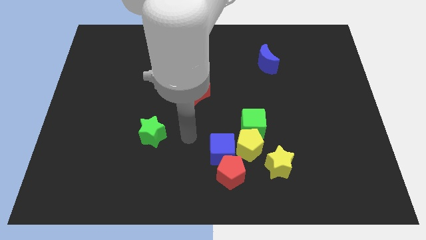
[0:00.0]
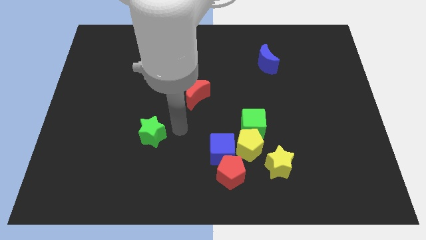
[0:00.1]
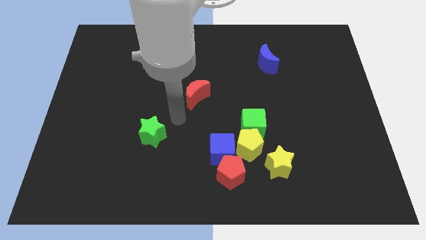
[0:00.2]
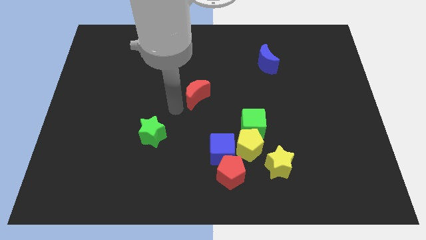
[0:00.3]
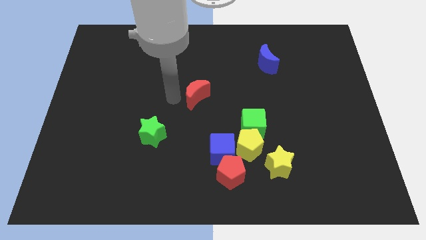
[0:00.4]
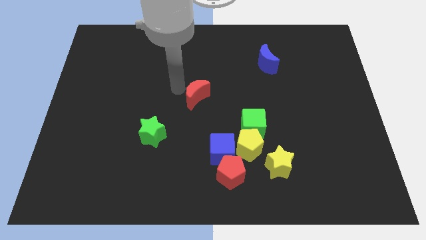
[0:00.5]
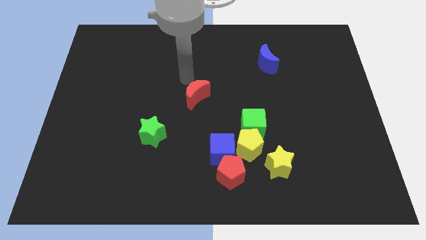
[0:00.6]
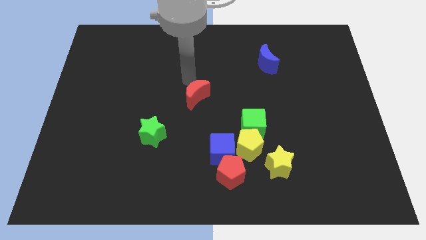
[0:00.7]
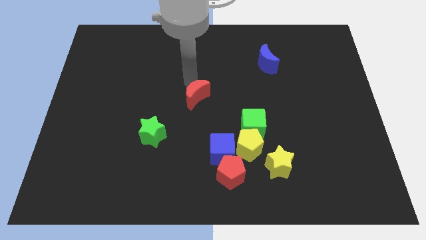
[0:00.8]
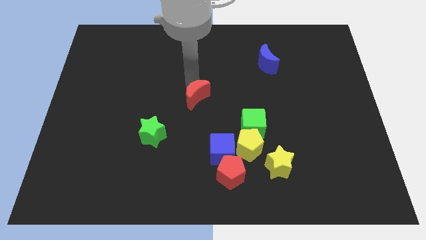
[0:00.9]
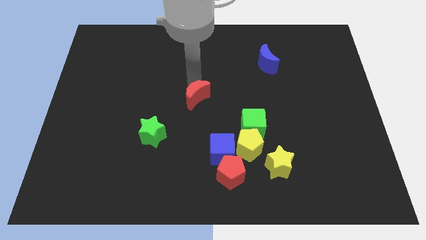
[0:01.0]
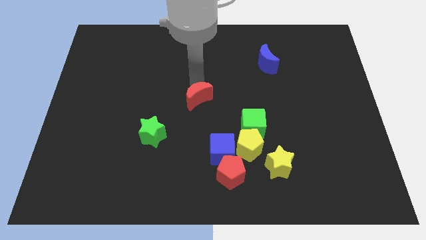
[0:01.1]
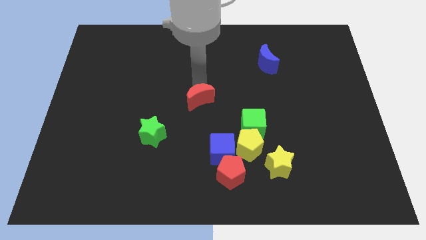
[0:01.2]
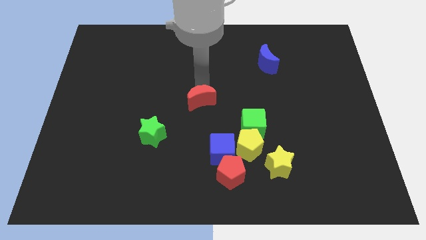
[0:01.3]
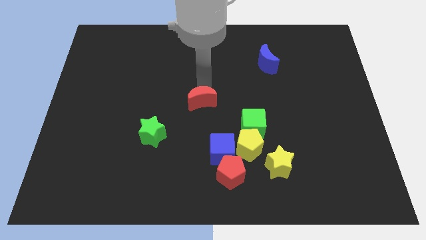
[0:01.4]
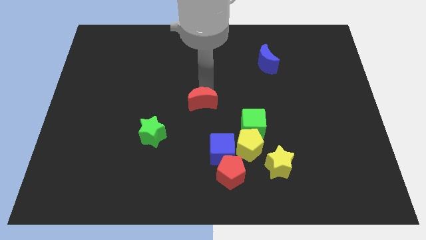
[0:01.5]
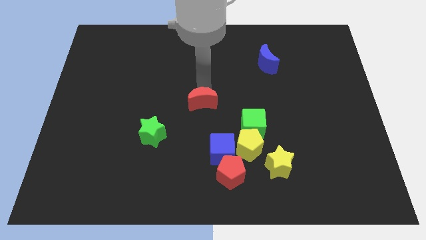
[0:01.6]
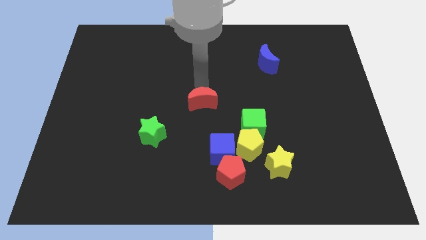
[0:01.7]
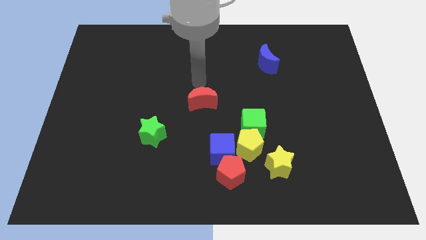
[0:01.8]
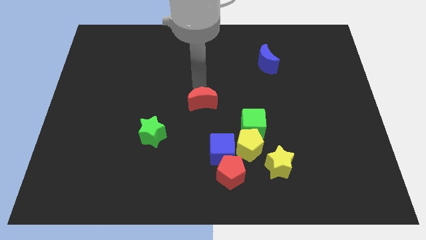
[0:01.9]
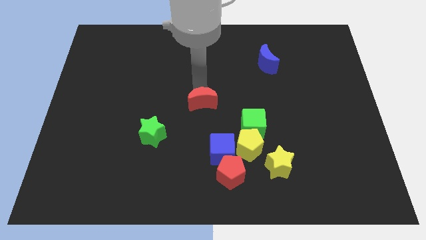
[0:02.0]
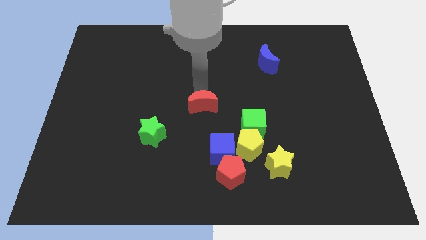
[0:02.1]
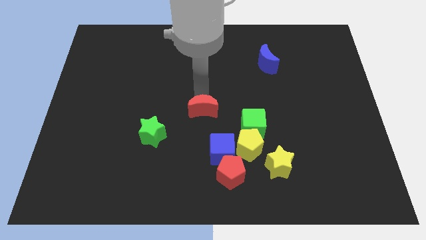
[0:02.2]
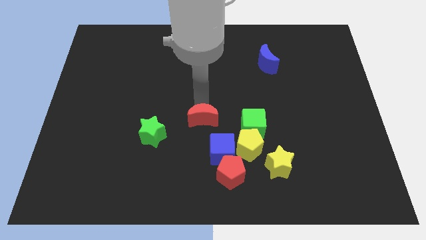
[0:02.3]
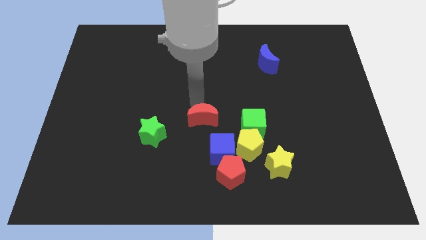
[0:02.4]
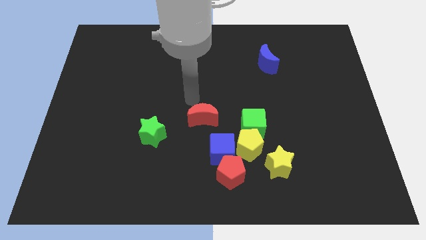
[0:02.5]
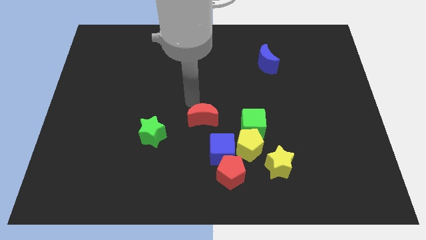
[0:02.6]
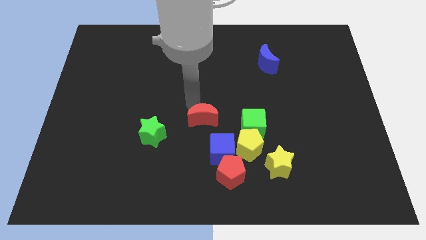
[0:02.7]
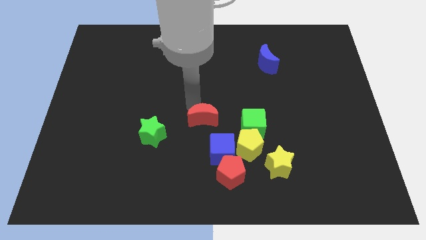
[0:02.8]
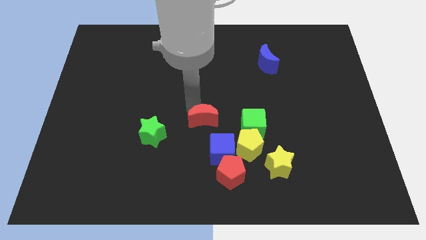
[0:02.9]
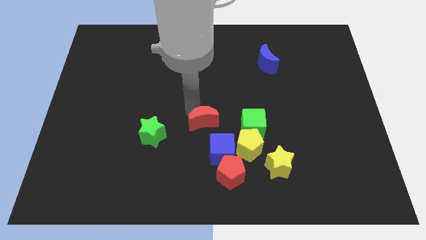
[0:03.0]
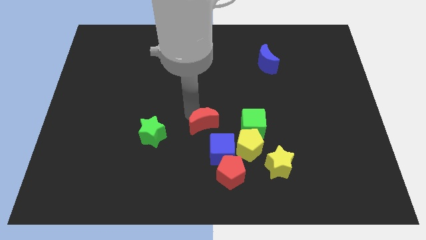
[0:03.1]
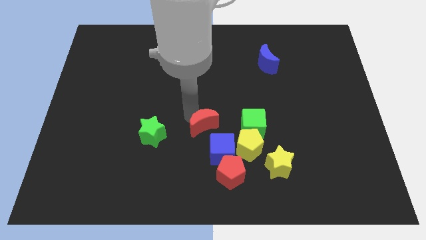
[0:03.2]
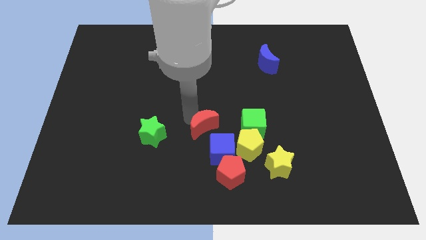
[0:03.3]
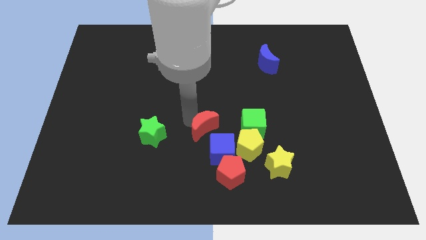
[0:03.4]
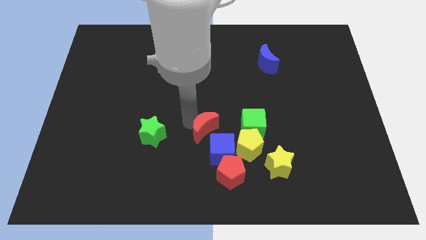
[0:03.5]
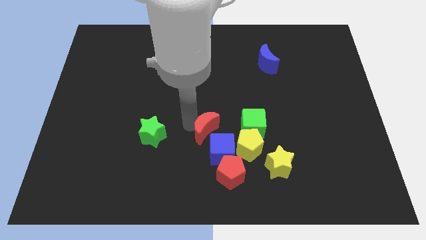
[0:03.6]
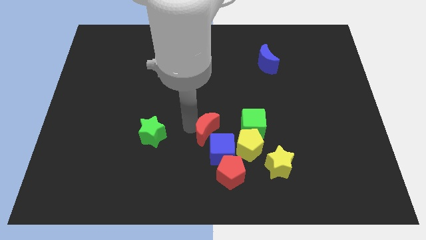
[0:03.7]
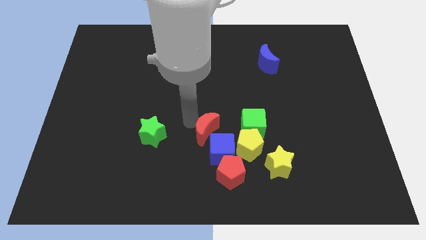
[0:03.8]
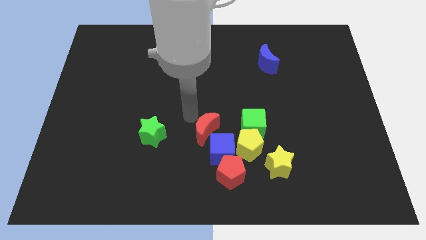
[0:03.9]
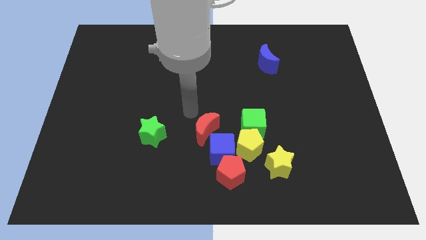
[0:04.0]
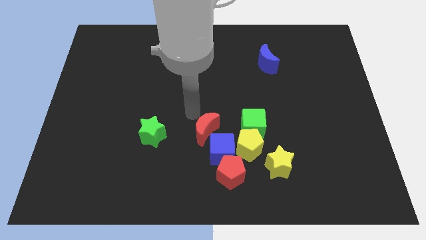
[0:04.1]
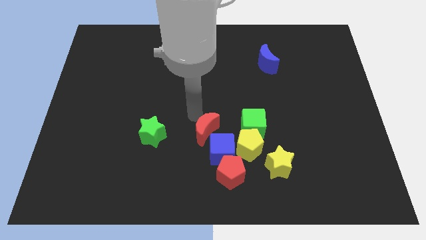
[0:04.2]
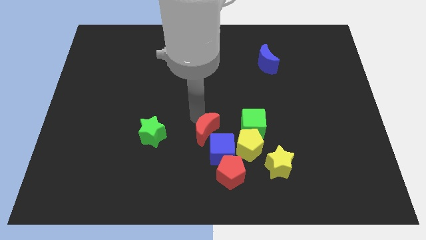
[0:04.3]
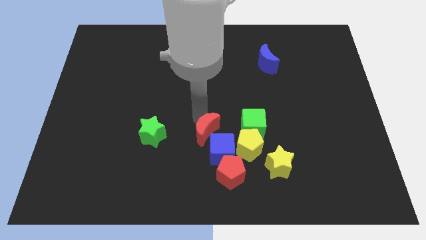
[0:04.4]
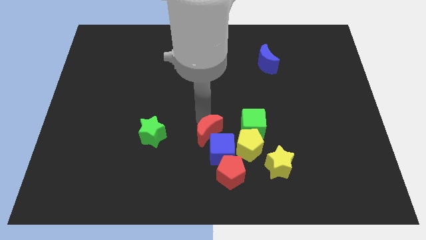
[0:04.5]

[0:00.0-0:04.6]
slide the red moon to the blue cube

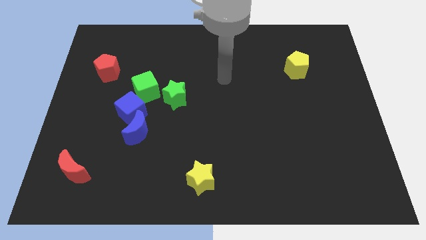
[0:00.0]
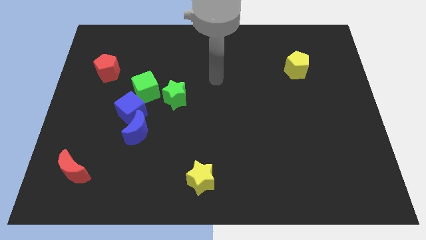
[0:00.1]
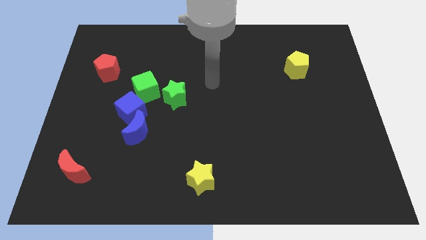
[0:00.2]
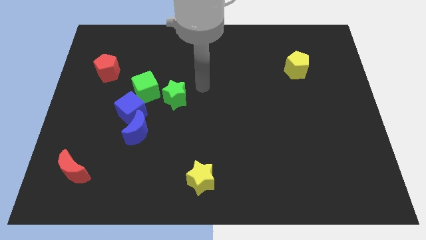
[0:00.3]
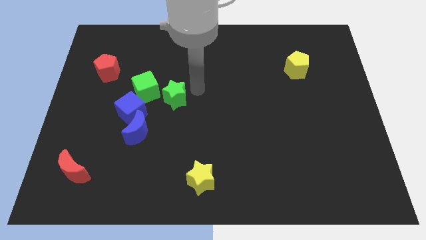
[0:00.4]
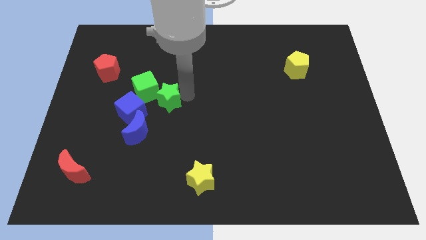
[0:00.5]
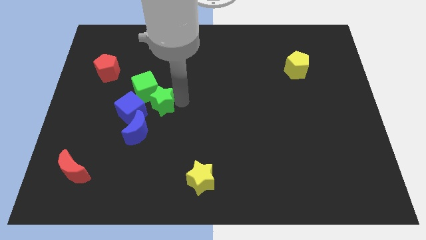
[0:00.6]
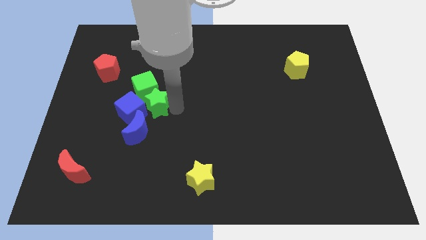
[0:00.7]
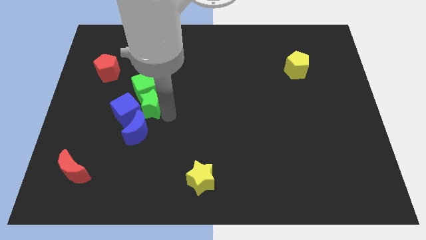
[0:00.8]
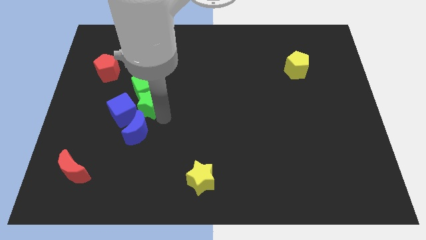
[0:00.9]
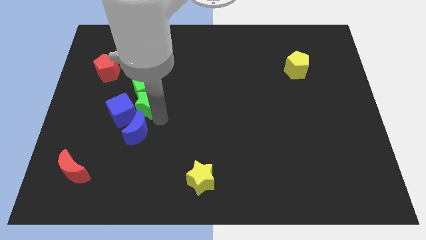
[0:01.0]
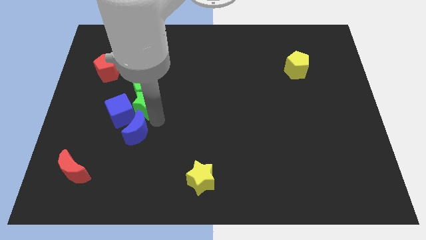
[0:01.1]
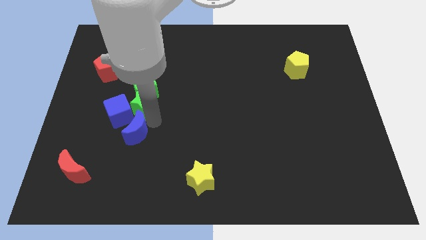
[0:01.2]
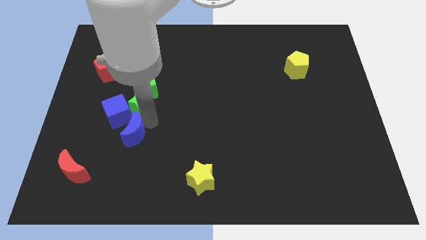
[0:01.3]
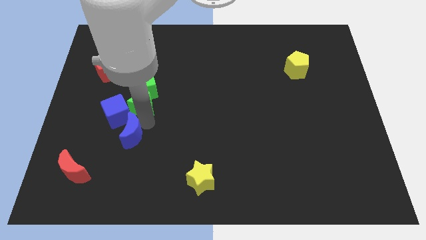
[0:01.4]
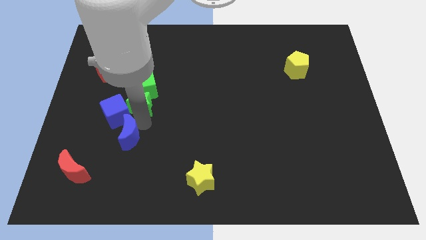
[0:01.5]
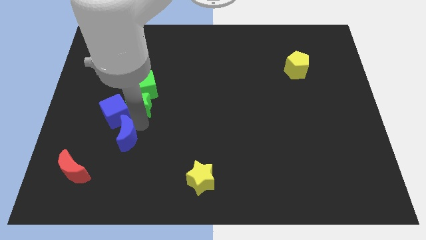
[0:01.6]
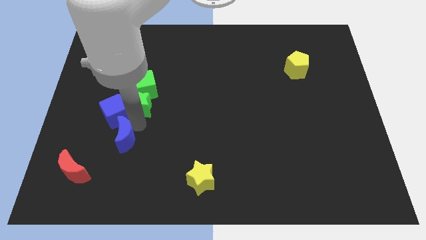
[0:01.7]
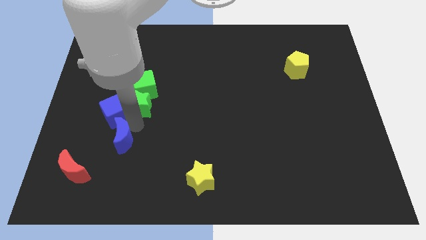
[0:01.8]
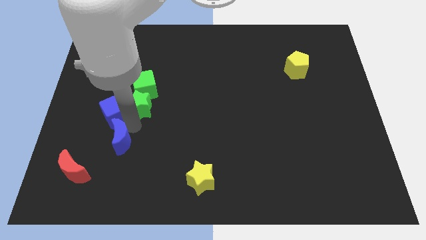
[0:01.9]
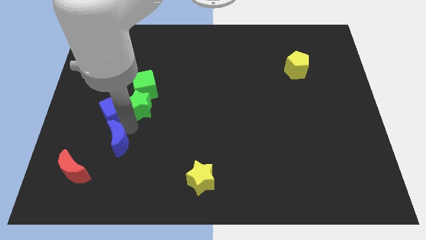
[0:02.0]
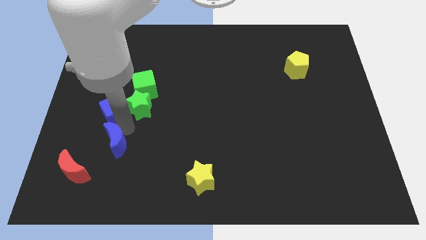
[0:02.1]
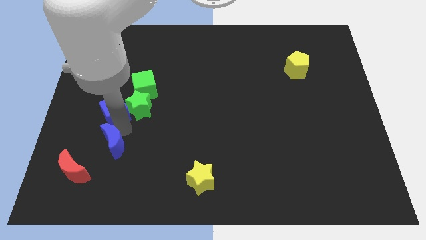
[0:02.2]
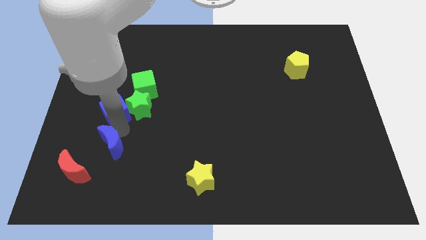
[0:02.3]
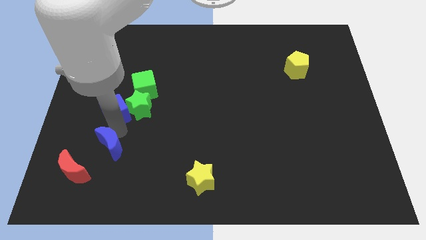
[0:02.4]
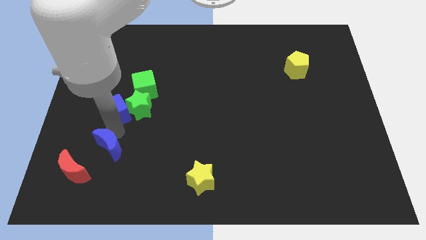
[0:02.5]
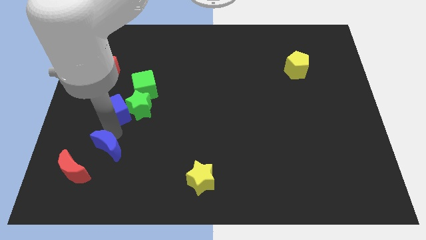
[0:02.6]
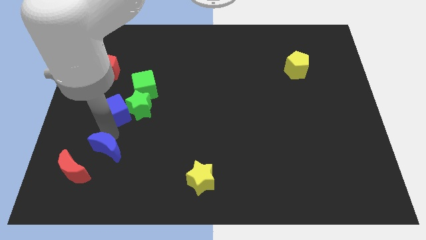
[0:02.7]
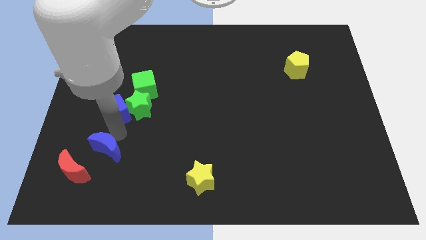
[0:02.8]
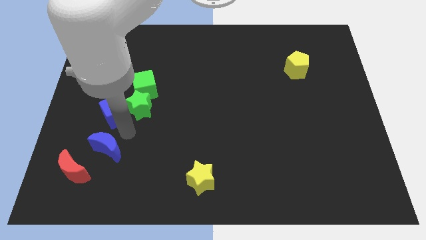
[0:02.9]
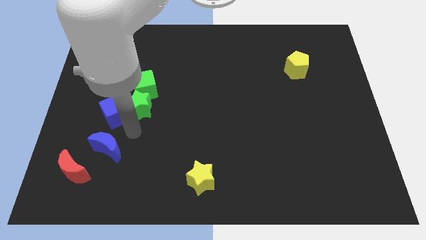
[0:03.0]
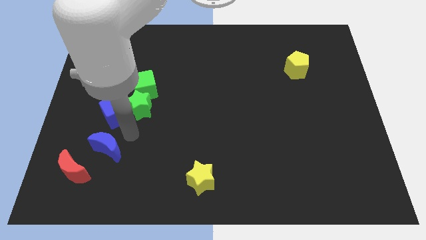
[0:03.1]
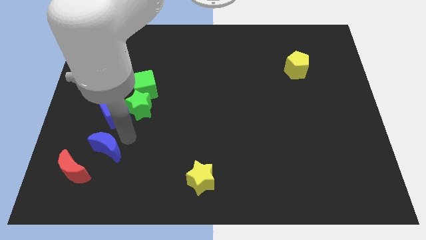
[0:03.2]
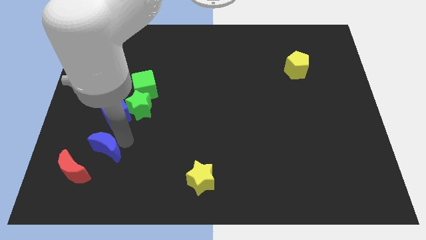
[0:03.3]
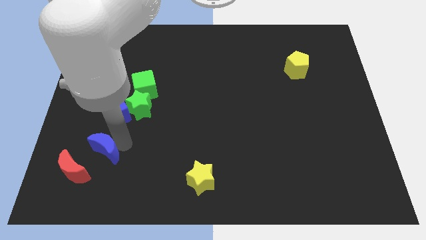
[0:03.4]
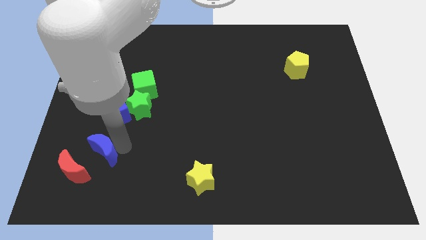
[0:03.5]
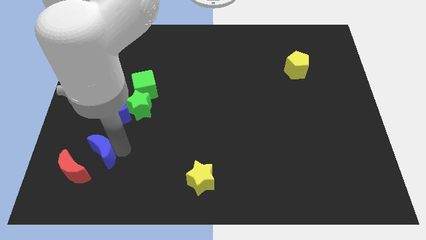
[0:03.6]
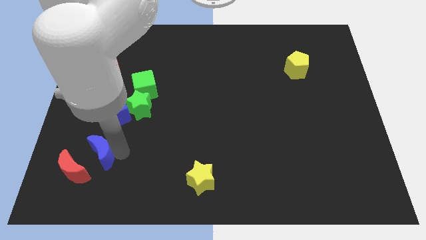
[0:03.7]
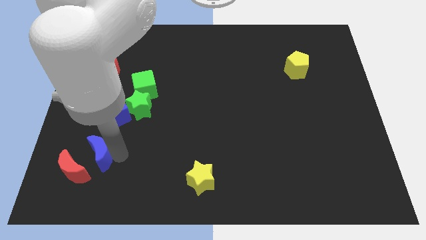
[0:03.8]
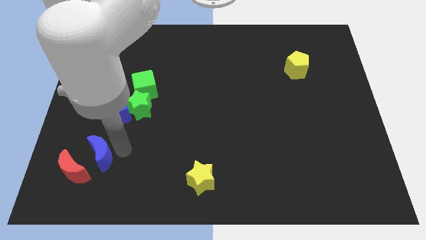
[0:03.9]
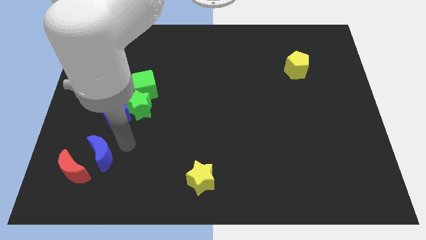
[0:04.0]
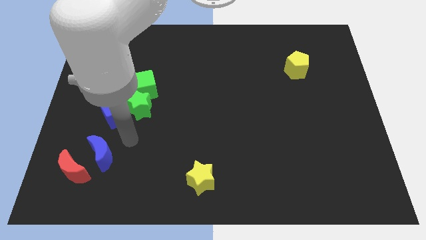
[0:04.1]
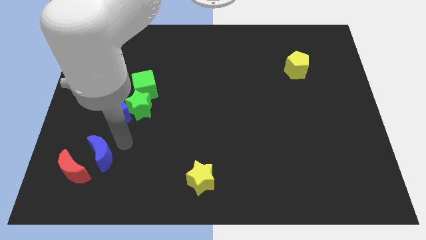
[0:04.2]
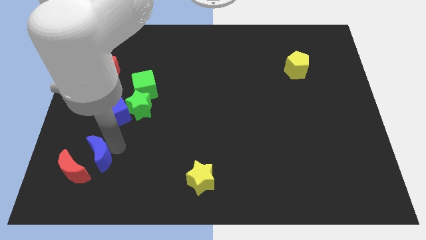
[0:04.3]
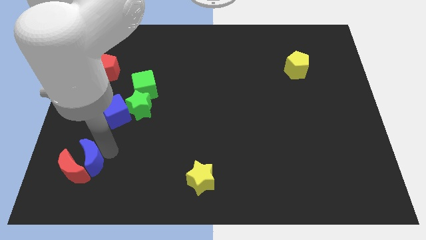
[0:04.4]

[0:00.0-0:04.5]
slide the blue moon to the red moon
